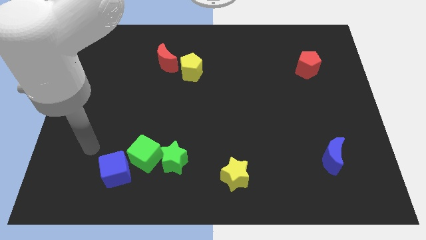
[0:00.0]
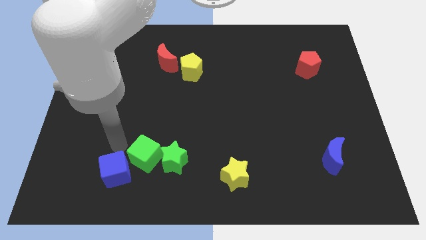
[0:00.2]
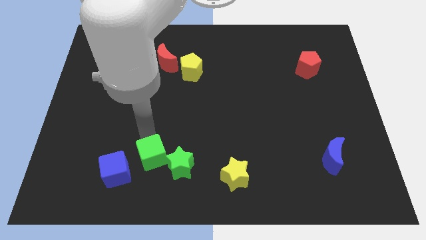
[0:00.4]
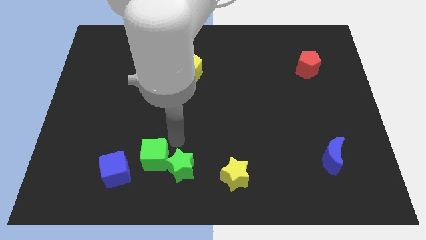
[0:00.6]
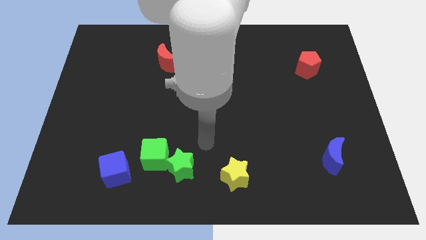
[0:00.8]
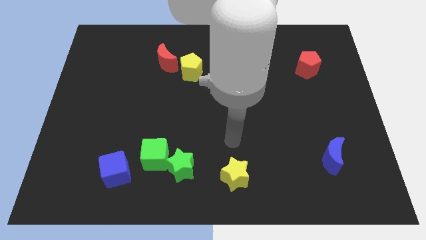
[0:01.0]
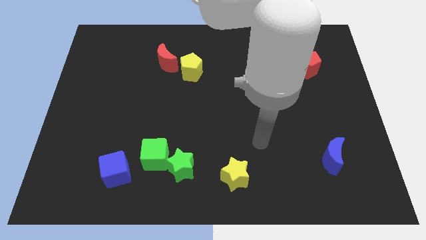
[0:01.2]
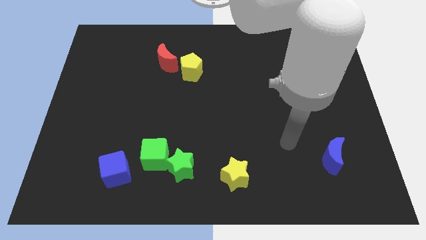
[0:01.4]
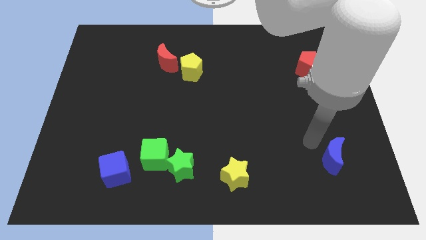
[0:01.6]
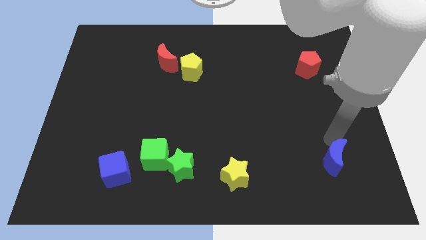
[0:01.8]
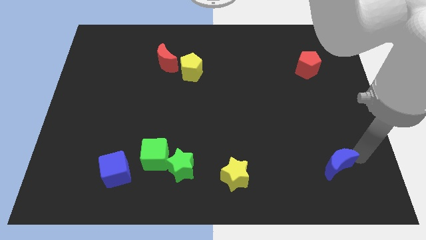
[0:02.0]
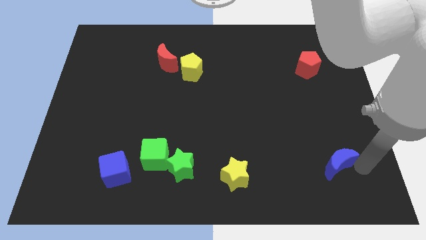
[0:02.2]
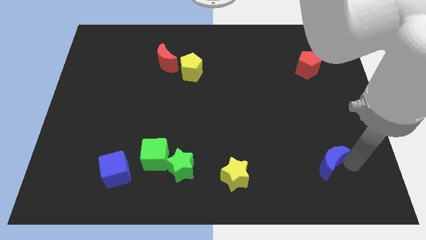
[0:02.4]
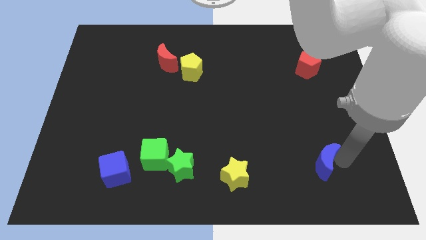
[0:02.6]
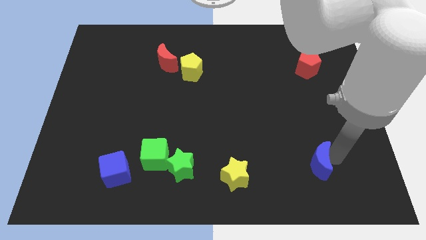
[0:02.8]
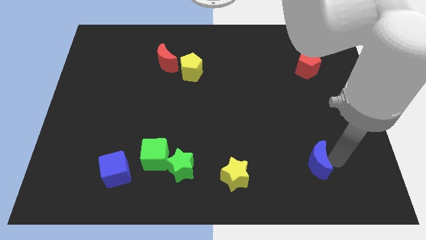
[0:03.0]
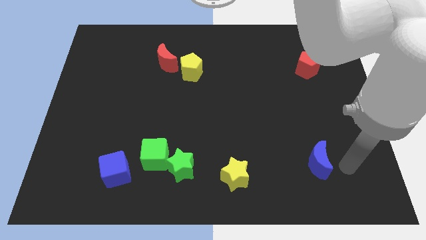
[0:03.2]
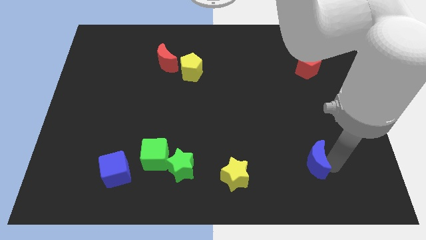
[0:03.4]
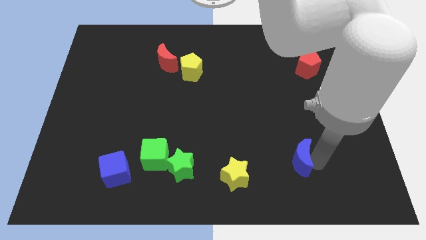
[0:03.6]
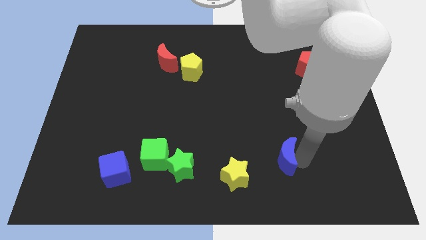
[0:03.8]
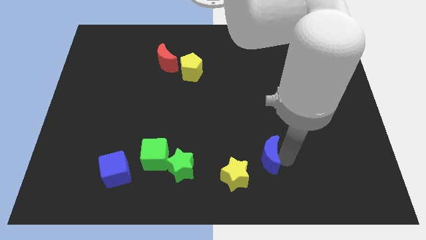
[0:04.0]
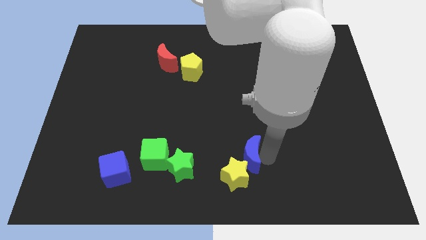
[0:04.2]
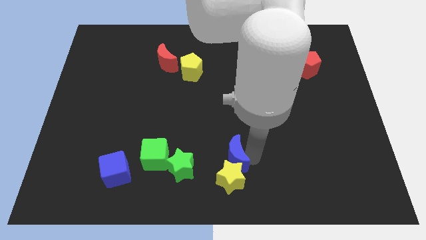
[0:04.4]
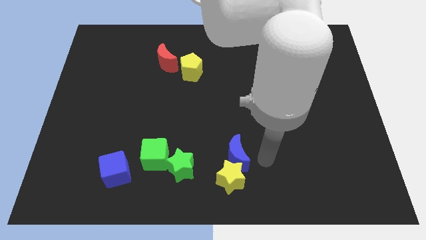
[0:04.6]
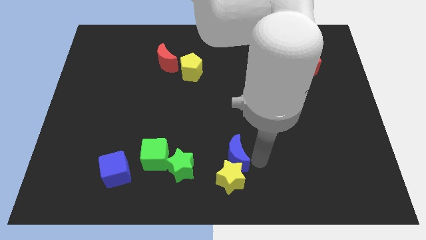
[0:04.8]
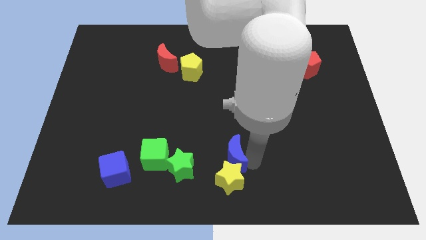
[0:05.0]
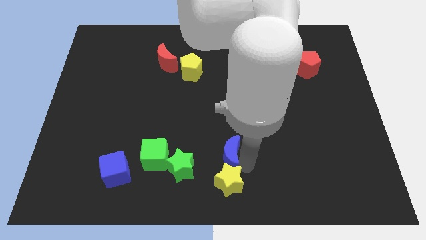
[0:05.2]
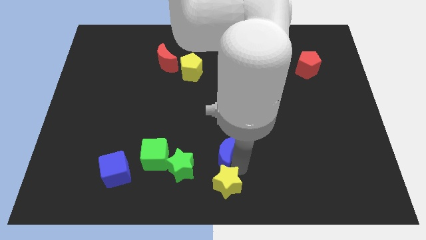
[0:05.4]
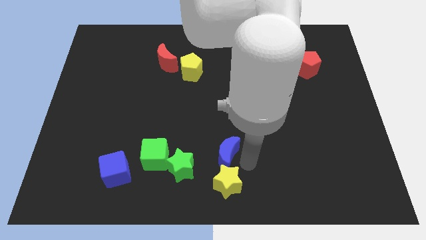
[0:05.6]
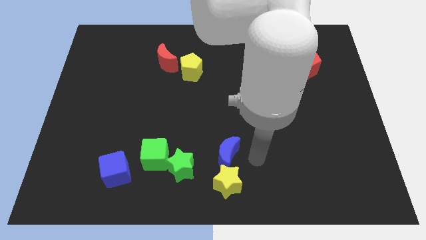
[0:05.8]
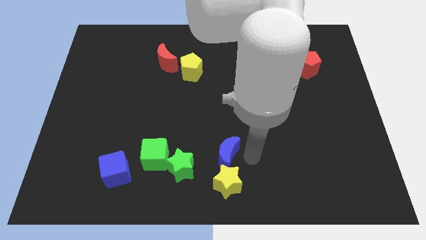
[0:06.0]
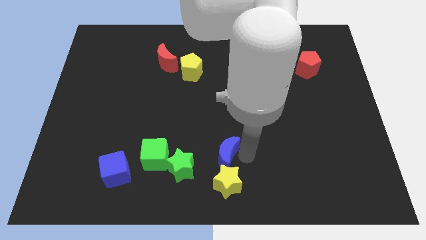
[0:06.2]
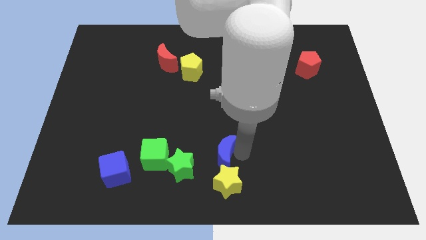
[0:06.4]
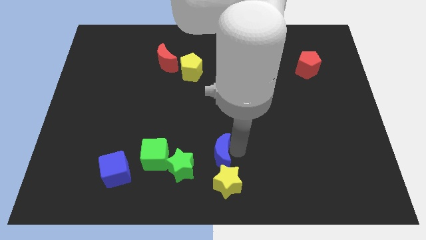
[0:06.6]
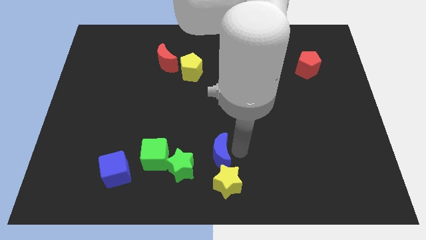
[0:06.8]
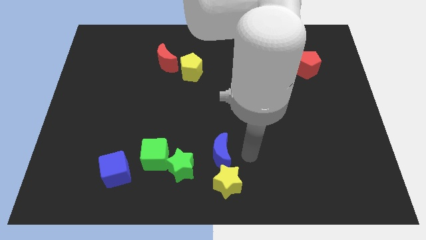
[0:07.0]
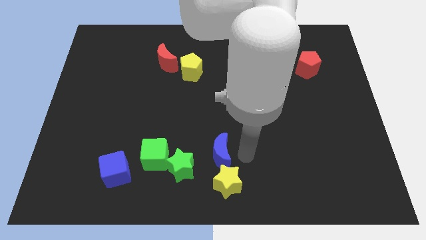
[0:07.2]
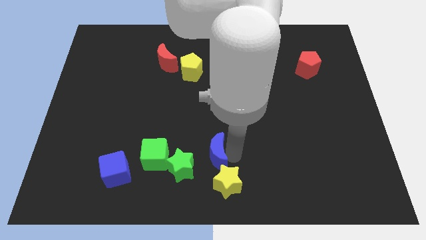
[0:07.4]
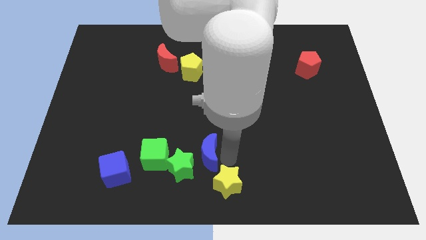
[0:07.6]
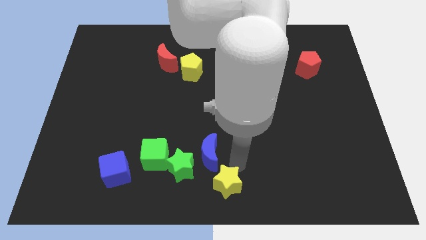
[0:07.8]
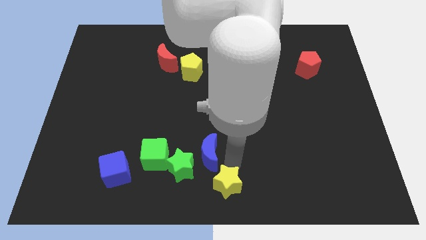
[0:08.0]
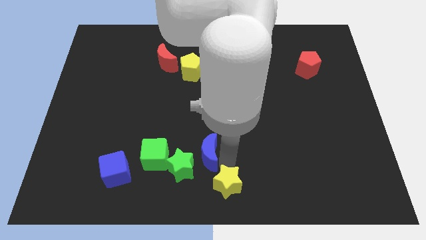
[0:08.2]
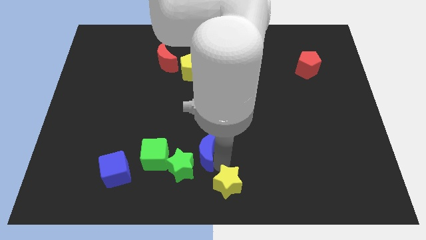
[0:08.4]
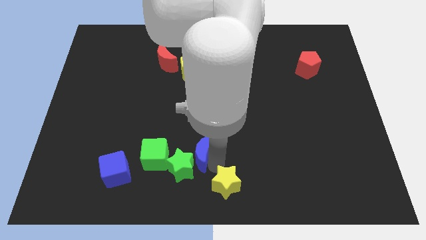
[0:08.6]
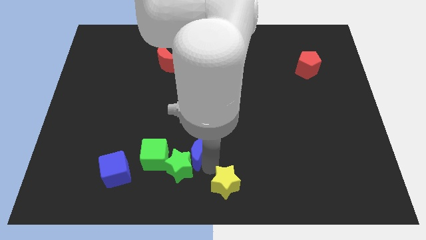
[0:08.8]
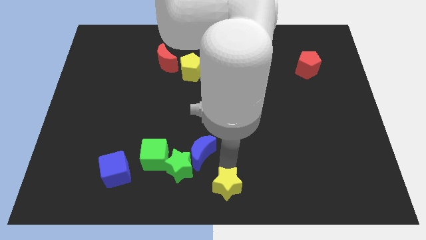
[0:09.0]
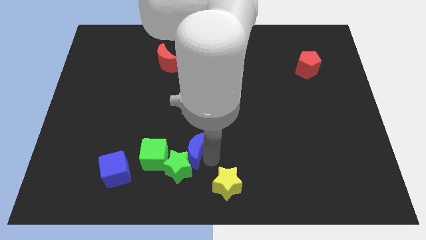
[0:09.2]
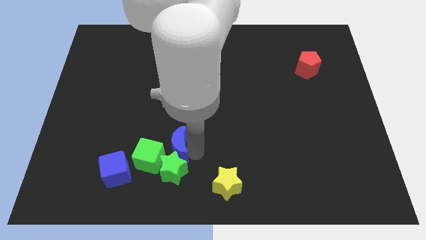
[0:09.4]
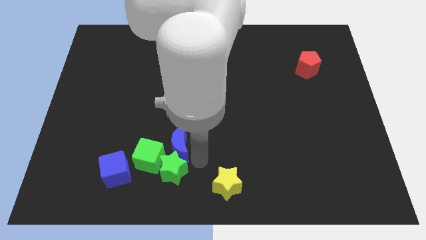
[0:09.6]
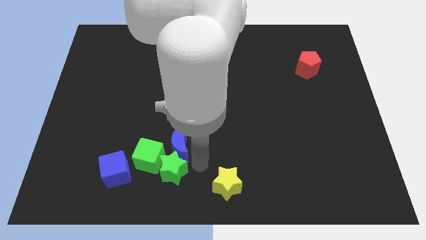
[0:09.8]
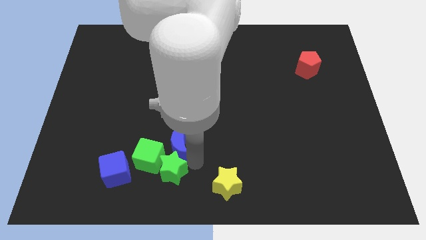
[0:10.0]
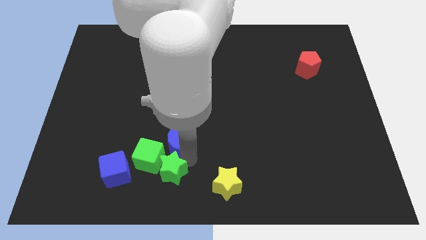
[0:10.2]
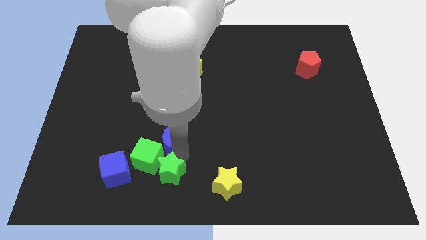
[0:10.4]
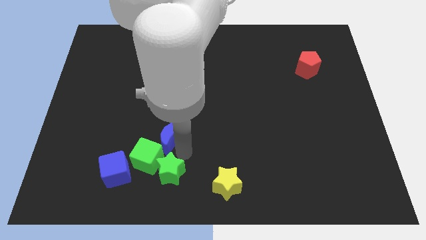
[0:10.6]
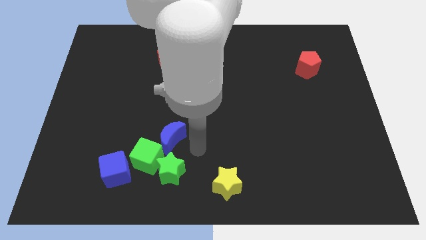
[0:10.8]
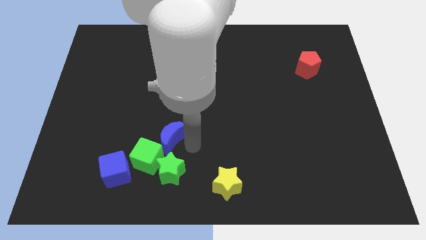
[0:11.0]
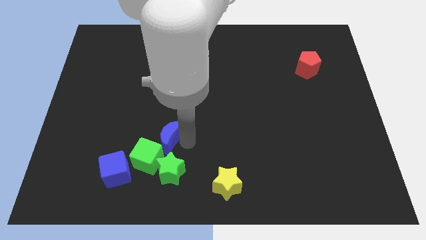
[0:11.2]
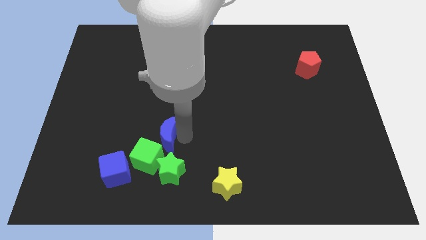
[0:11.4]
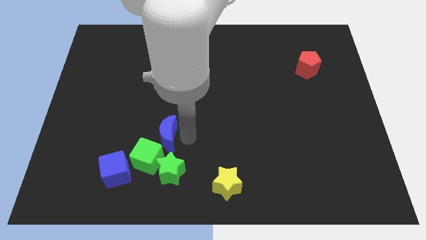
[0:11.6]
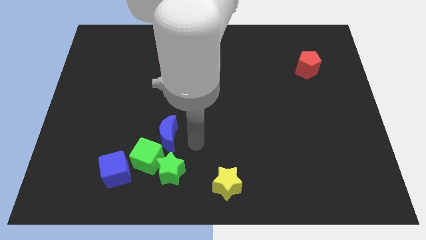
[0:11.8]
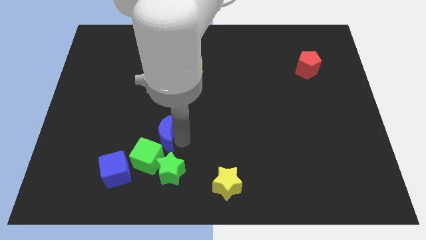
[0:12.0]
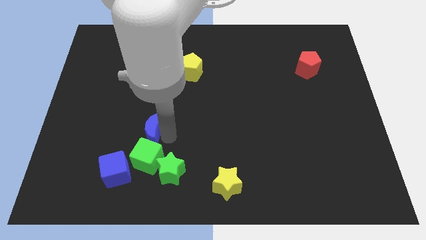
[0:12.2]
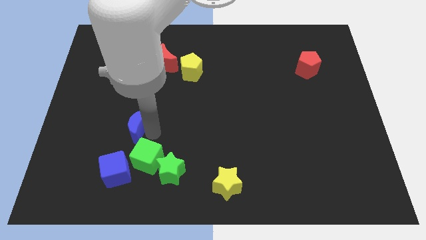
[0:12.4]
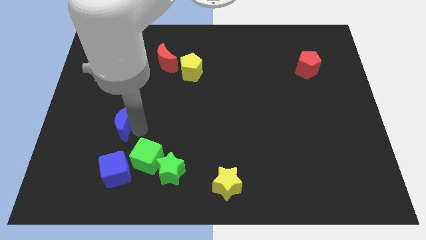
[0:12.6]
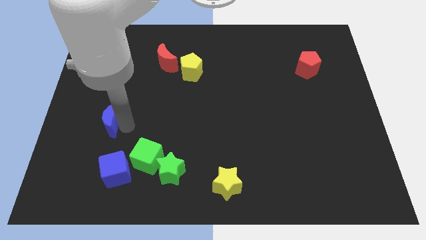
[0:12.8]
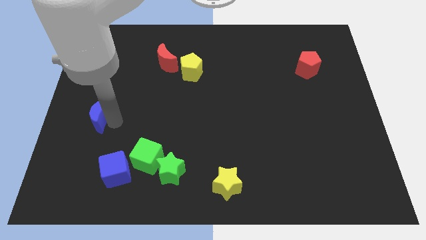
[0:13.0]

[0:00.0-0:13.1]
push the blue moon to the left side
